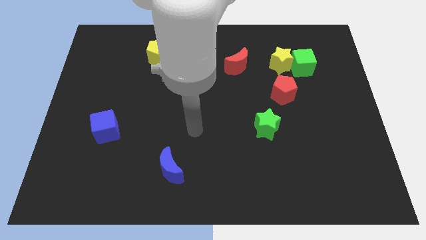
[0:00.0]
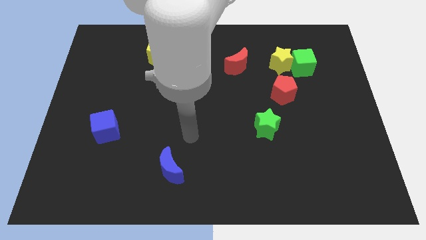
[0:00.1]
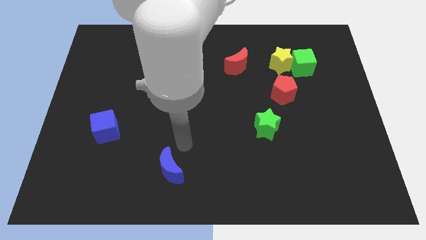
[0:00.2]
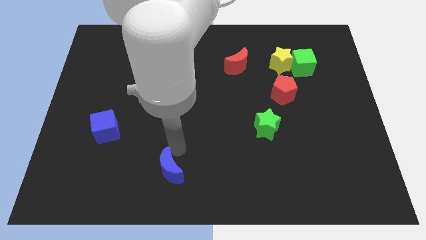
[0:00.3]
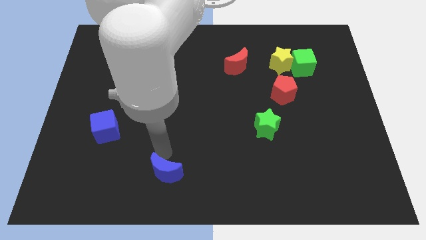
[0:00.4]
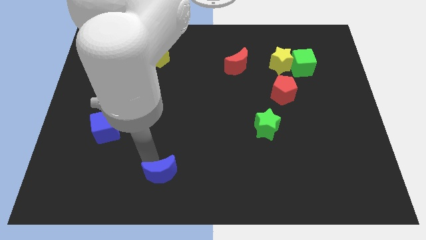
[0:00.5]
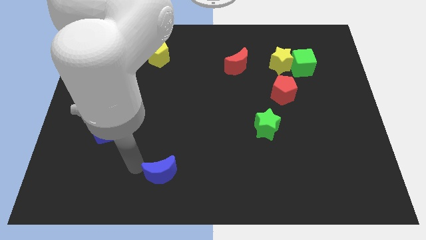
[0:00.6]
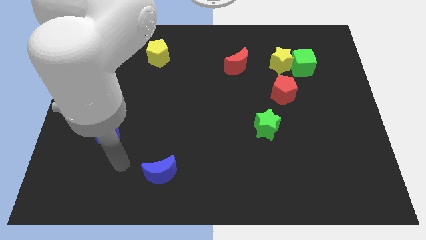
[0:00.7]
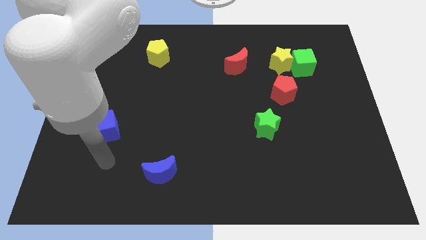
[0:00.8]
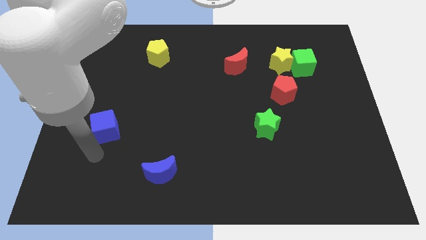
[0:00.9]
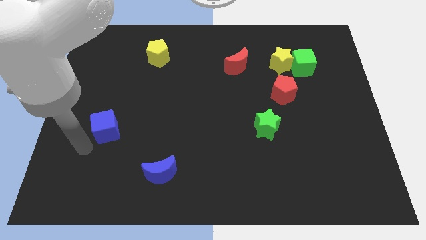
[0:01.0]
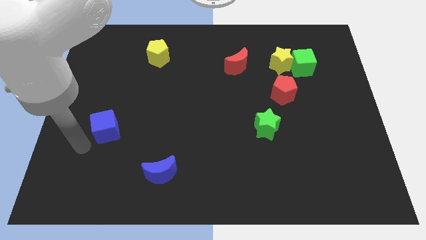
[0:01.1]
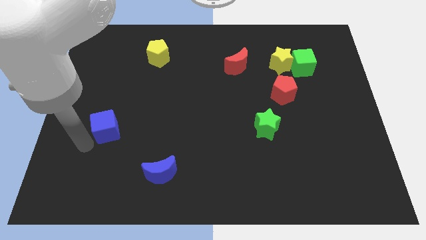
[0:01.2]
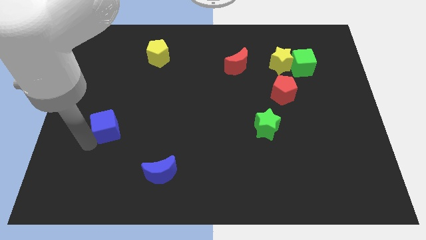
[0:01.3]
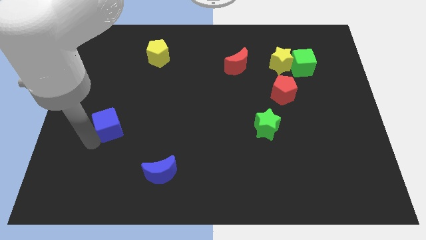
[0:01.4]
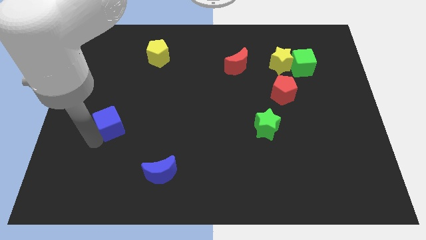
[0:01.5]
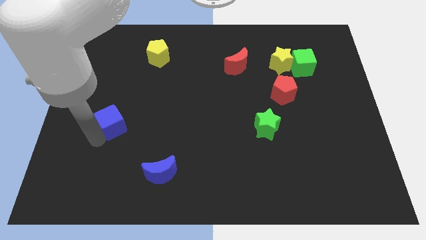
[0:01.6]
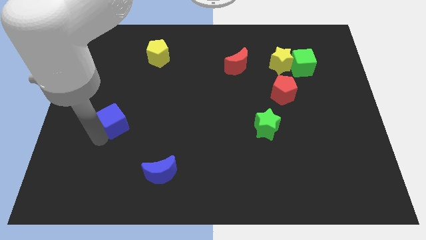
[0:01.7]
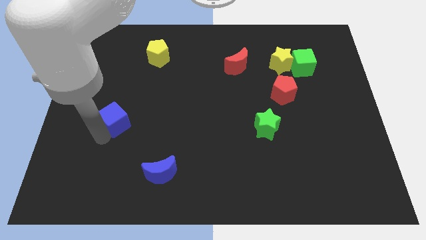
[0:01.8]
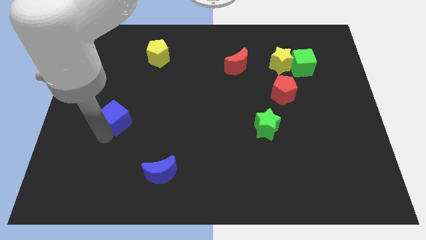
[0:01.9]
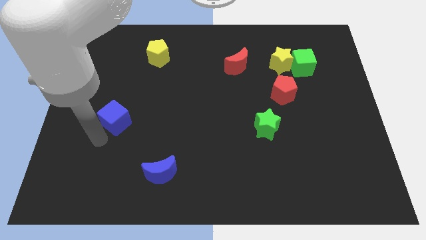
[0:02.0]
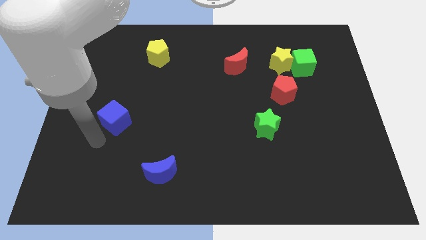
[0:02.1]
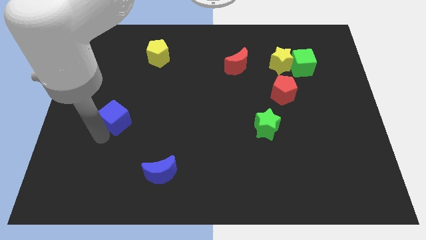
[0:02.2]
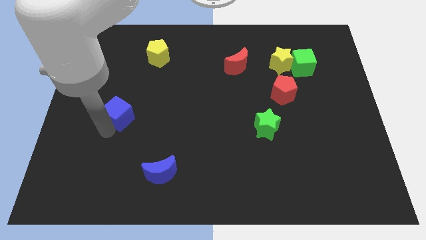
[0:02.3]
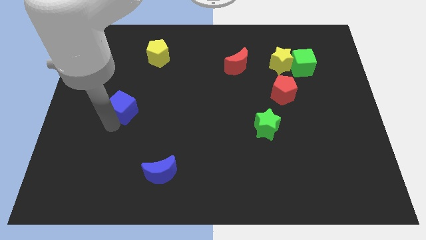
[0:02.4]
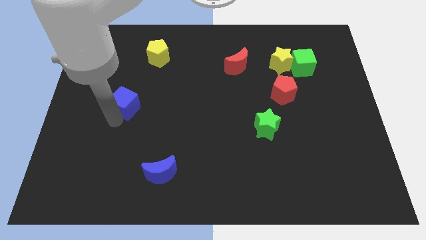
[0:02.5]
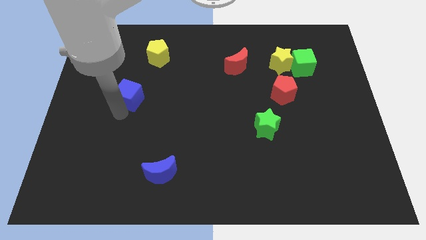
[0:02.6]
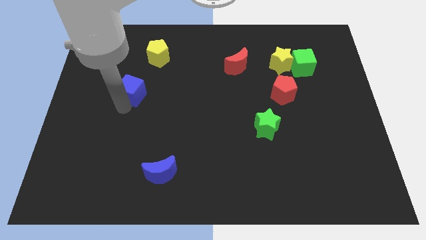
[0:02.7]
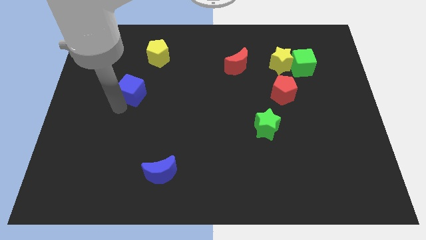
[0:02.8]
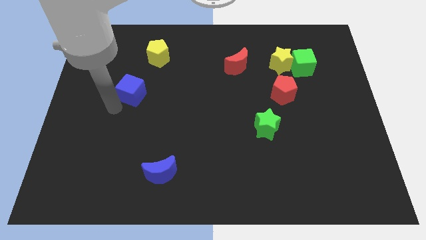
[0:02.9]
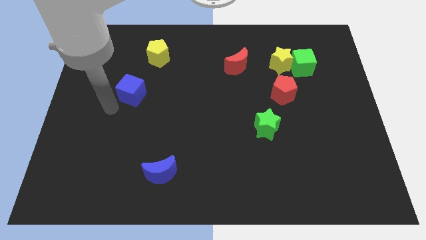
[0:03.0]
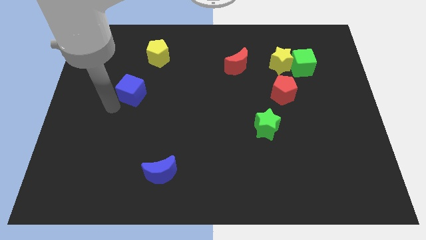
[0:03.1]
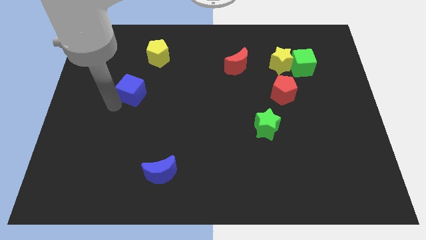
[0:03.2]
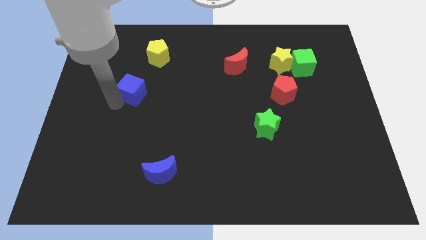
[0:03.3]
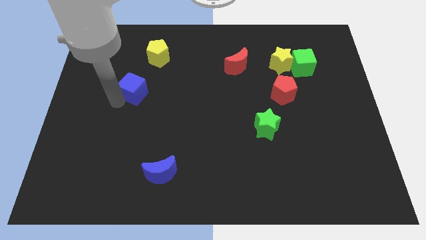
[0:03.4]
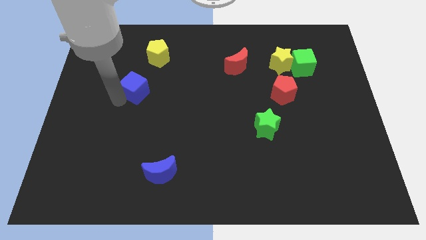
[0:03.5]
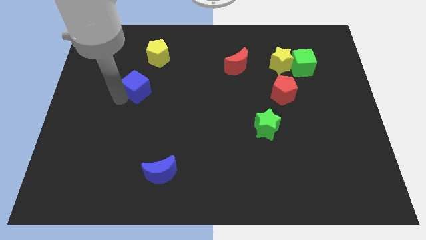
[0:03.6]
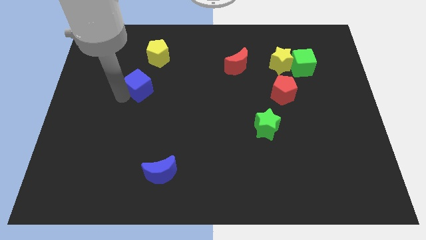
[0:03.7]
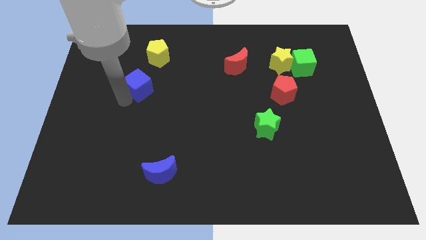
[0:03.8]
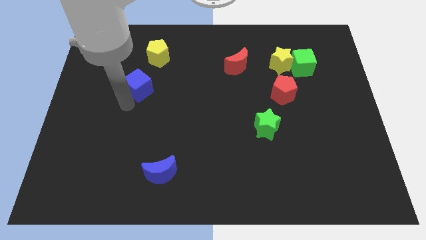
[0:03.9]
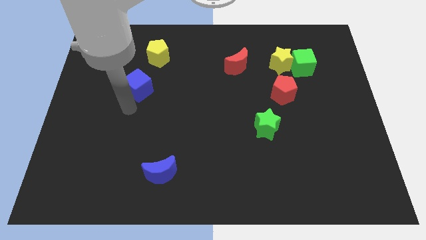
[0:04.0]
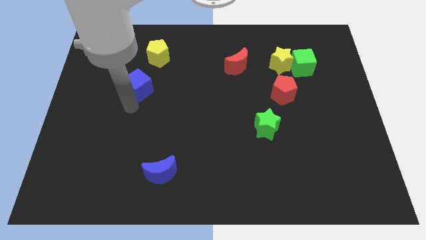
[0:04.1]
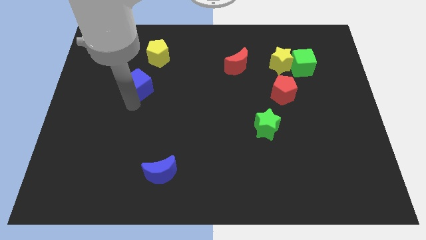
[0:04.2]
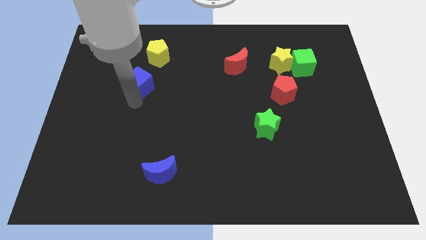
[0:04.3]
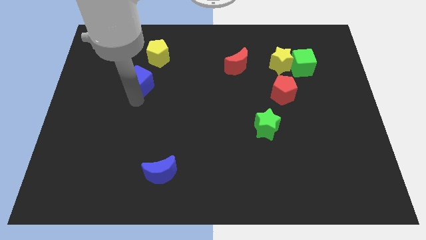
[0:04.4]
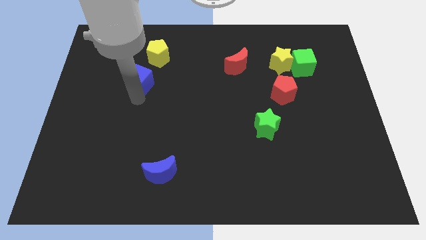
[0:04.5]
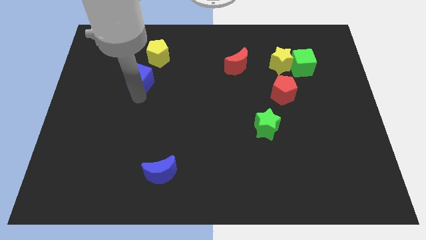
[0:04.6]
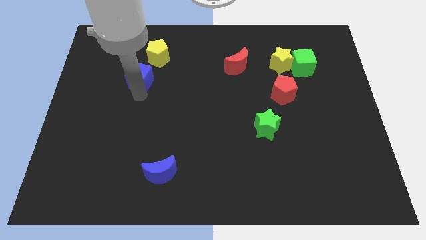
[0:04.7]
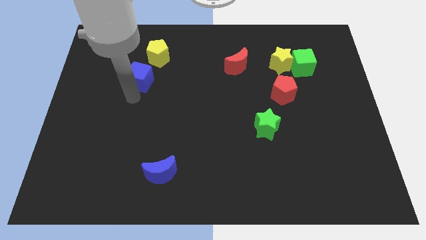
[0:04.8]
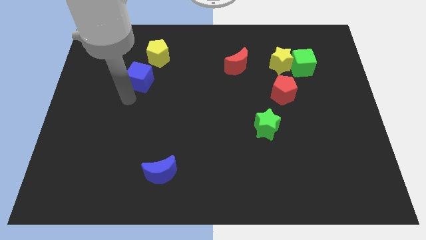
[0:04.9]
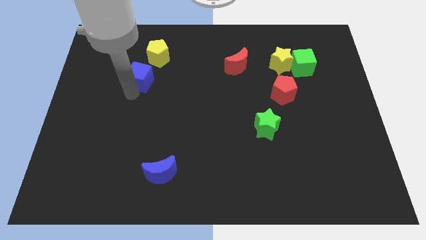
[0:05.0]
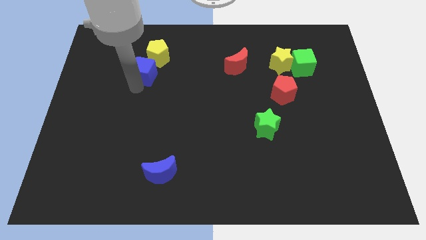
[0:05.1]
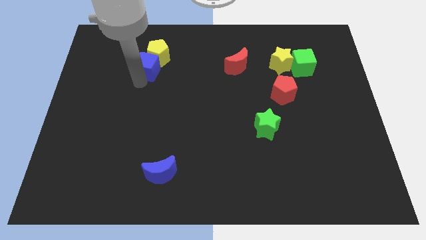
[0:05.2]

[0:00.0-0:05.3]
put the blue cube next to the yellow pentagon

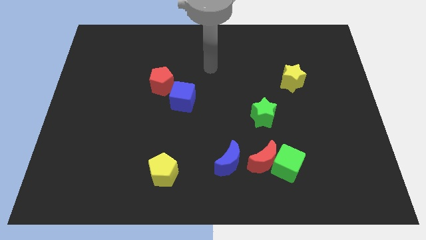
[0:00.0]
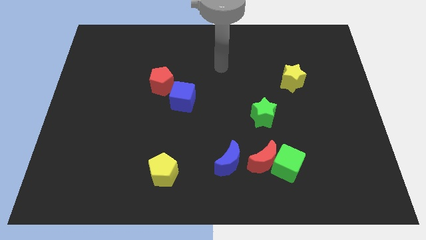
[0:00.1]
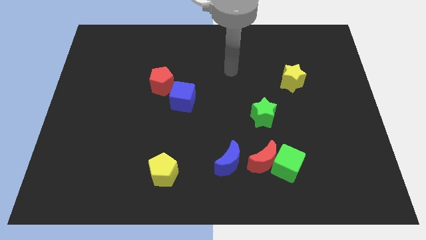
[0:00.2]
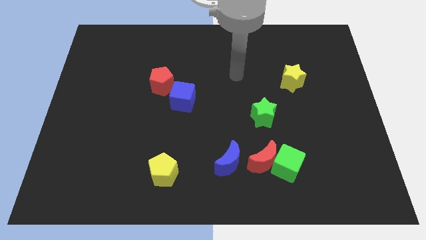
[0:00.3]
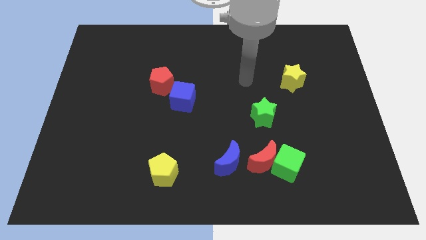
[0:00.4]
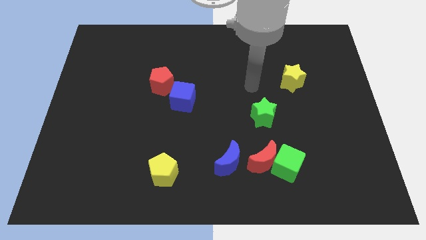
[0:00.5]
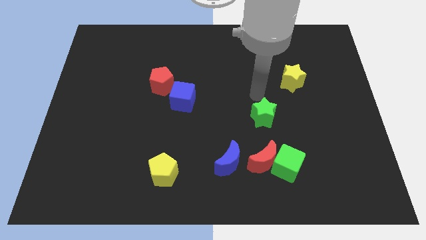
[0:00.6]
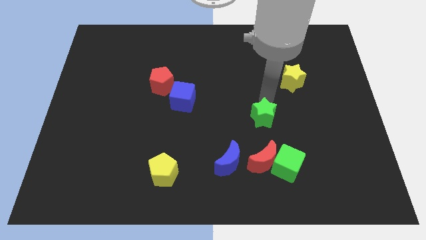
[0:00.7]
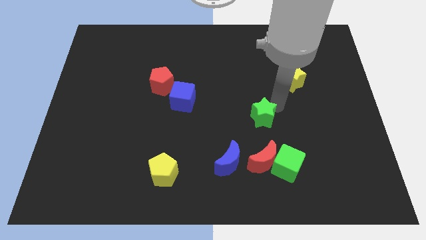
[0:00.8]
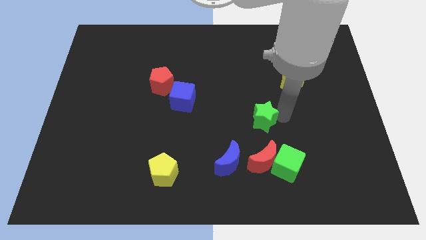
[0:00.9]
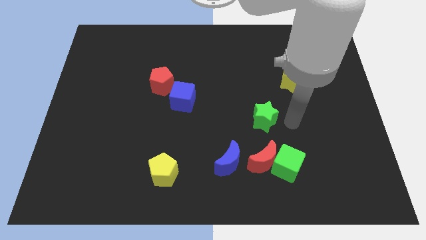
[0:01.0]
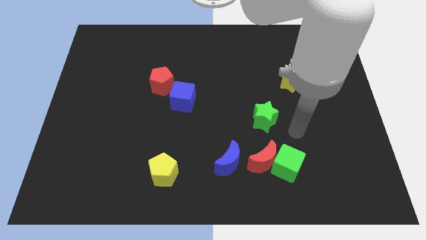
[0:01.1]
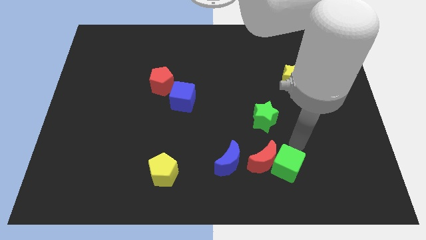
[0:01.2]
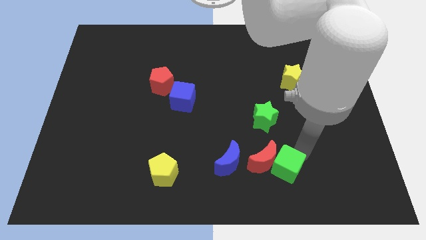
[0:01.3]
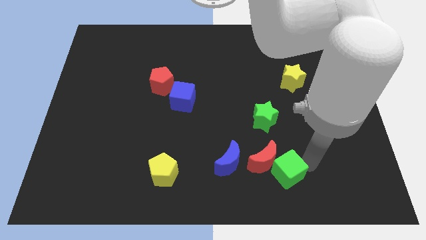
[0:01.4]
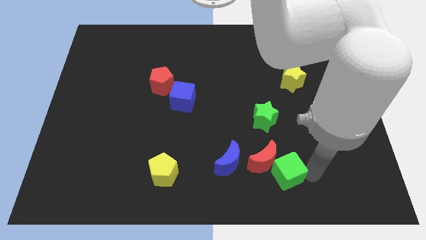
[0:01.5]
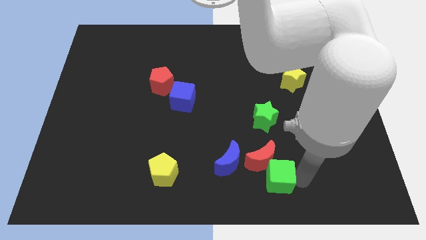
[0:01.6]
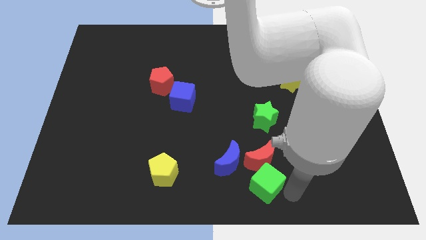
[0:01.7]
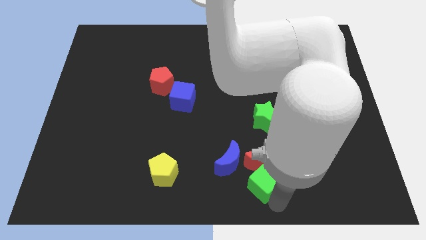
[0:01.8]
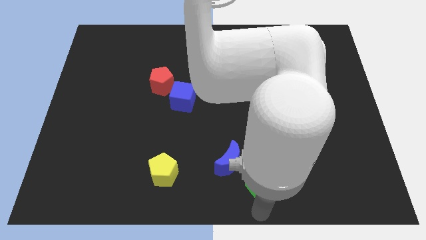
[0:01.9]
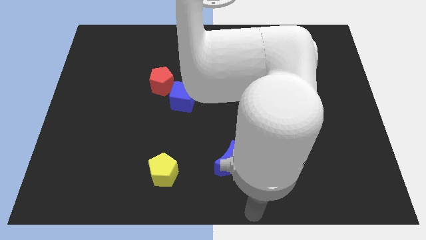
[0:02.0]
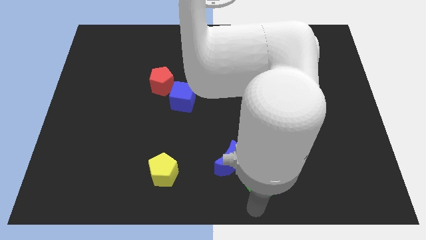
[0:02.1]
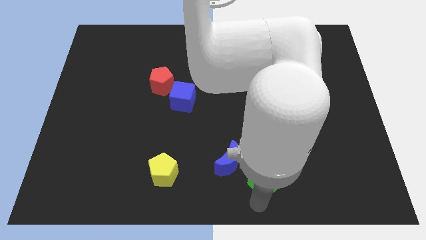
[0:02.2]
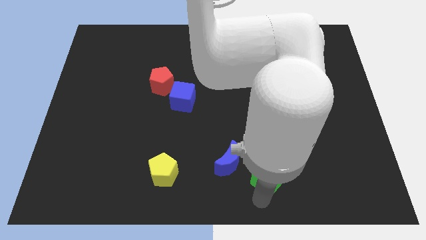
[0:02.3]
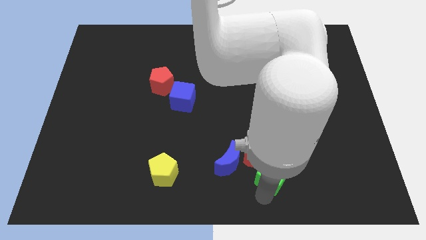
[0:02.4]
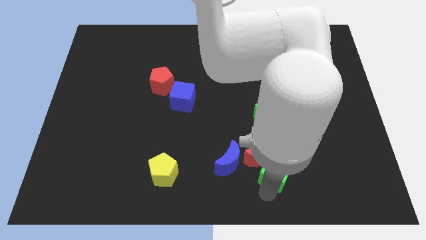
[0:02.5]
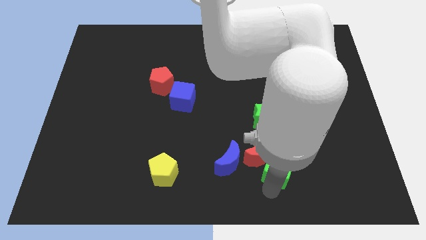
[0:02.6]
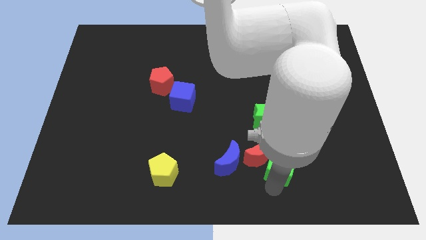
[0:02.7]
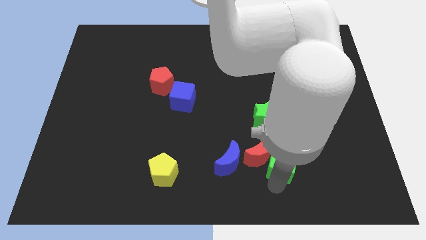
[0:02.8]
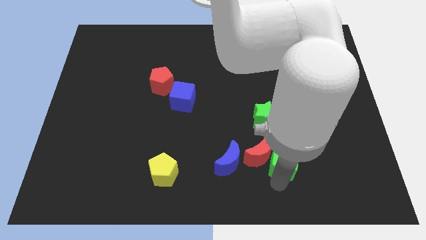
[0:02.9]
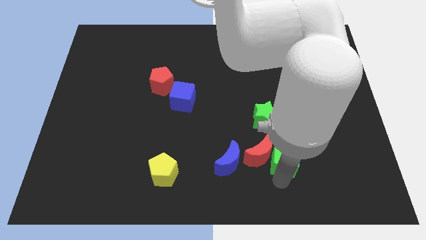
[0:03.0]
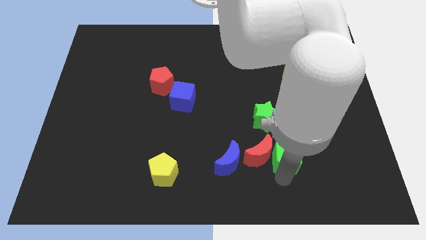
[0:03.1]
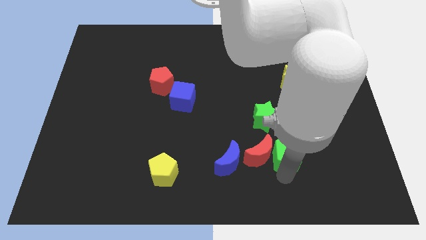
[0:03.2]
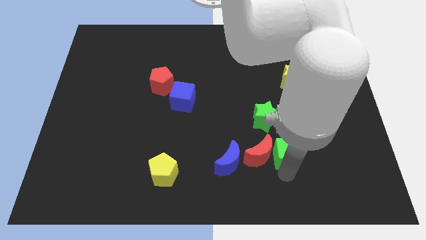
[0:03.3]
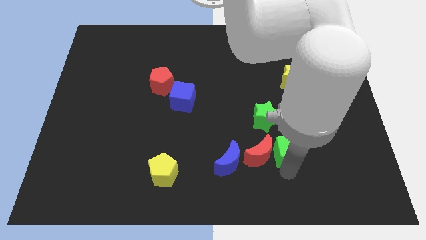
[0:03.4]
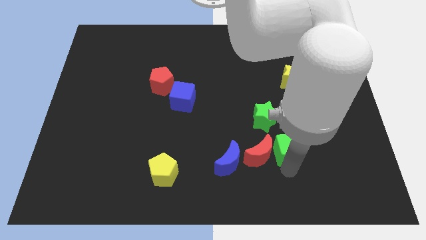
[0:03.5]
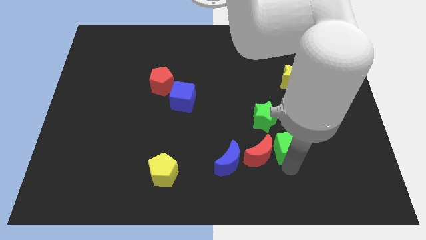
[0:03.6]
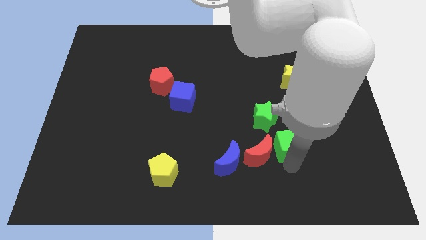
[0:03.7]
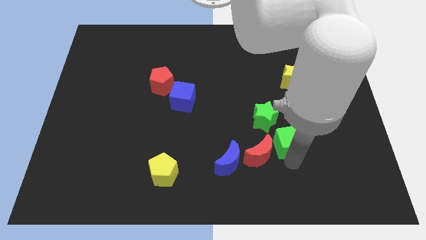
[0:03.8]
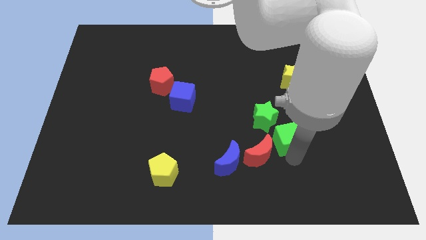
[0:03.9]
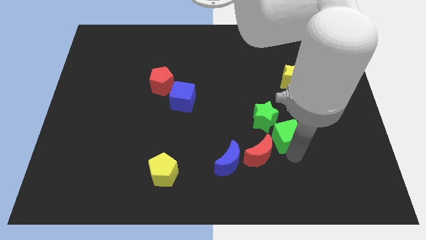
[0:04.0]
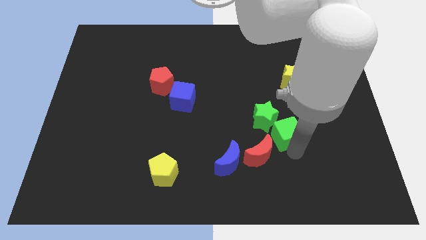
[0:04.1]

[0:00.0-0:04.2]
push the green cube close to the green star
